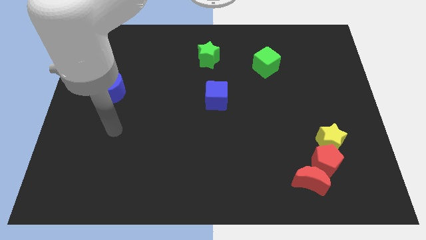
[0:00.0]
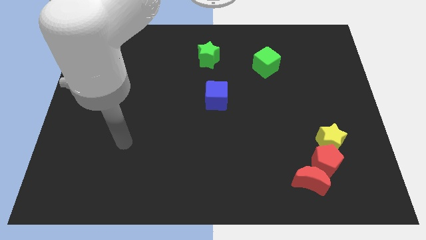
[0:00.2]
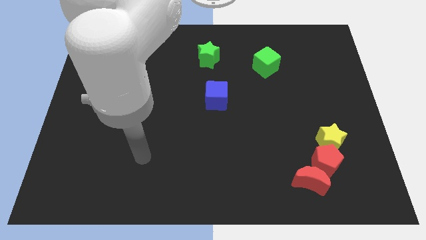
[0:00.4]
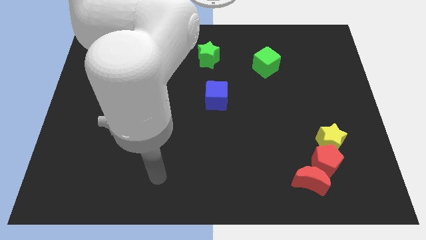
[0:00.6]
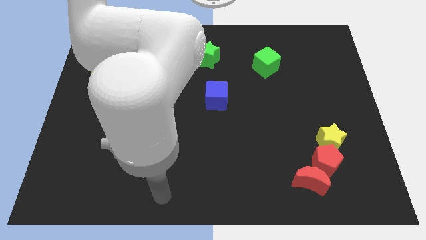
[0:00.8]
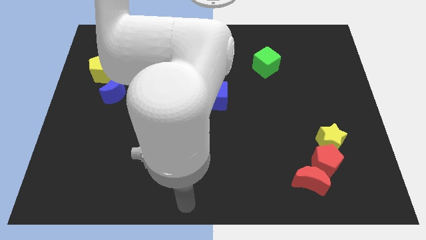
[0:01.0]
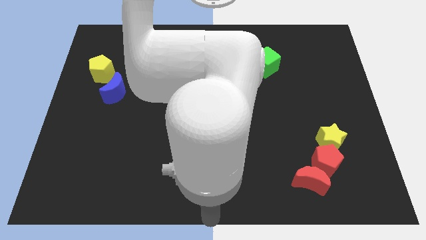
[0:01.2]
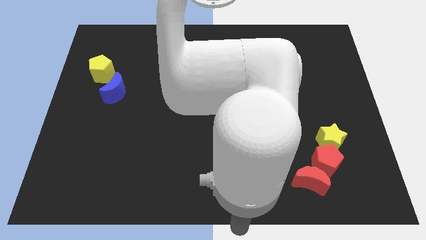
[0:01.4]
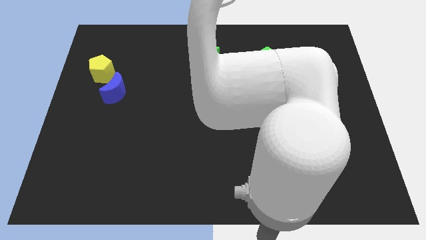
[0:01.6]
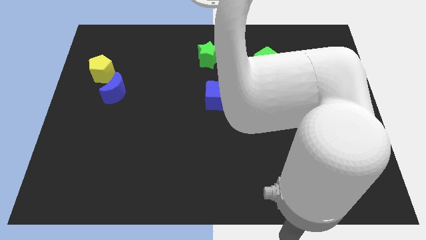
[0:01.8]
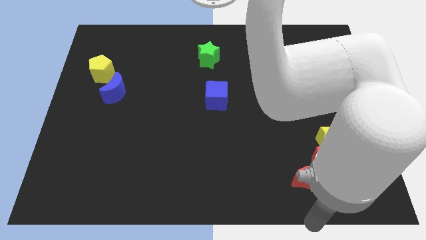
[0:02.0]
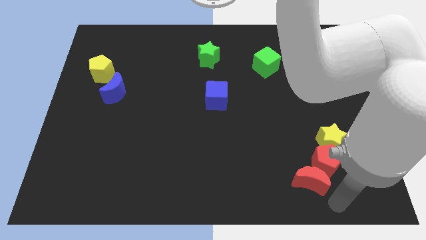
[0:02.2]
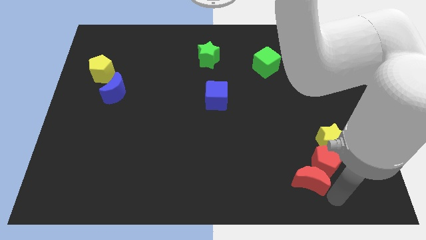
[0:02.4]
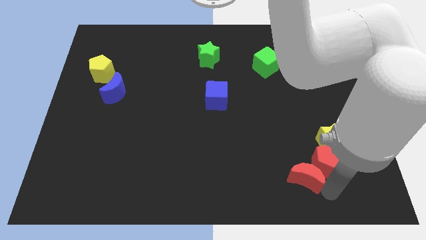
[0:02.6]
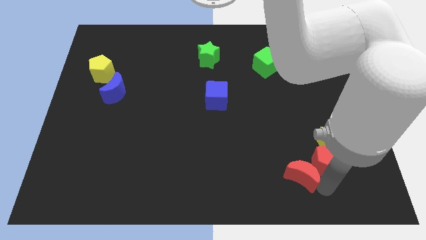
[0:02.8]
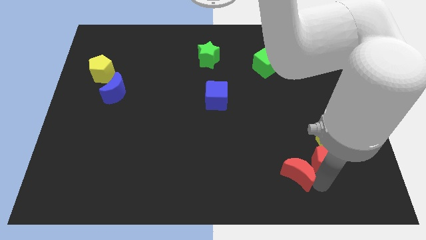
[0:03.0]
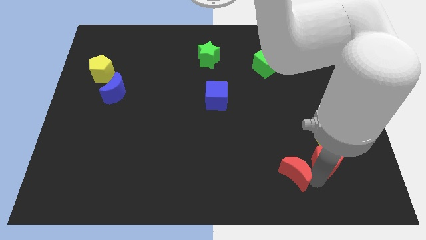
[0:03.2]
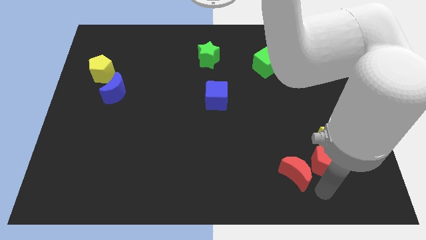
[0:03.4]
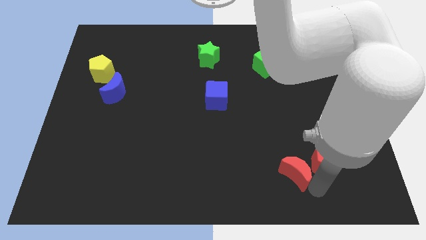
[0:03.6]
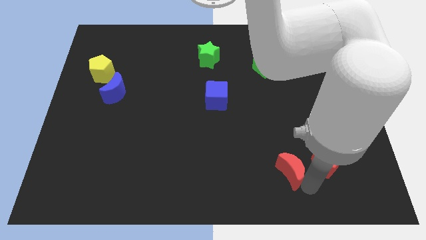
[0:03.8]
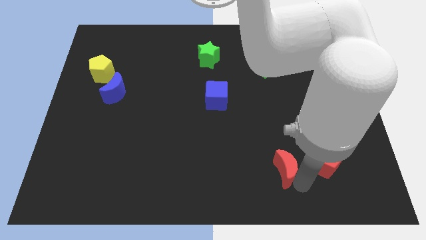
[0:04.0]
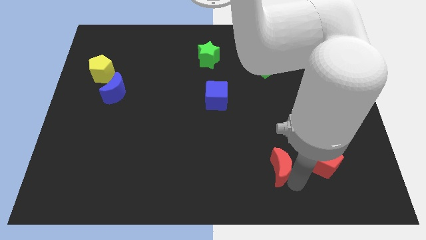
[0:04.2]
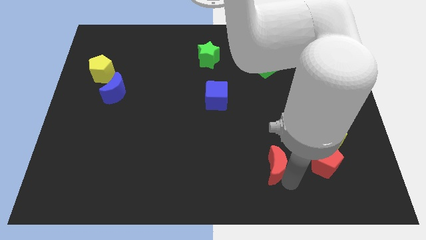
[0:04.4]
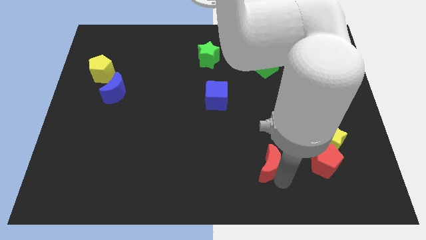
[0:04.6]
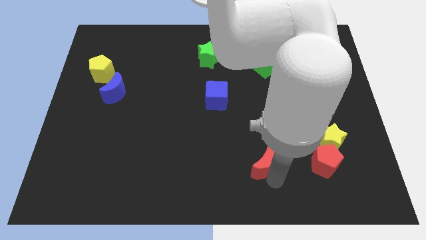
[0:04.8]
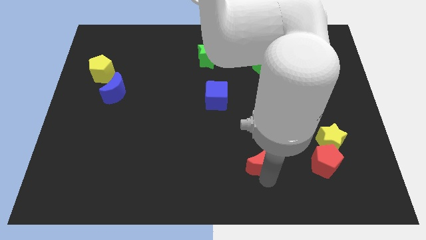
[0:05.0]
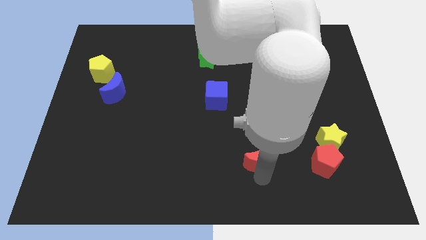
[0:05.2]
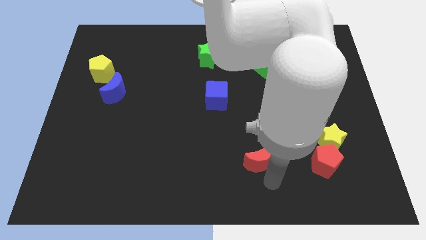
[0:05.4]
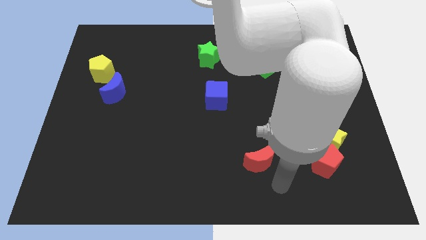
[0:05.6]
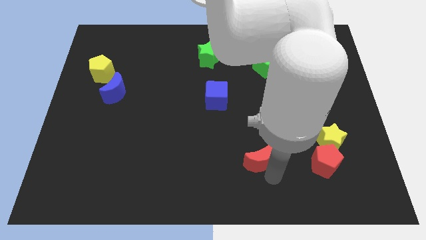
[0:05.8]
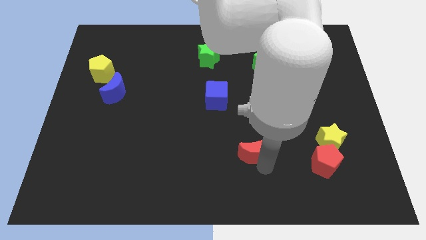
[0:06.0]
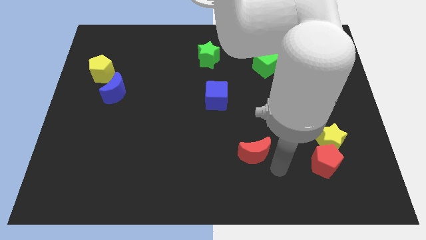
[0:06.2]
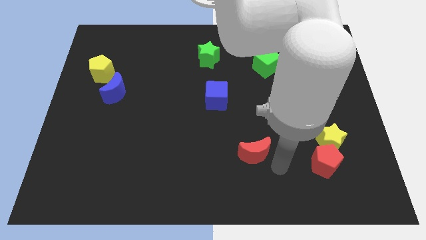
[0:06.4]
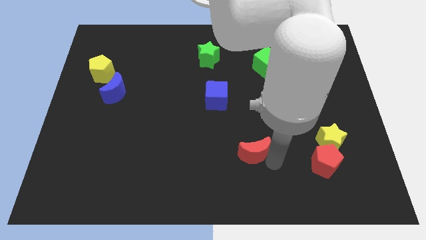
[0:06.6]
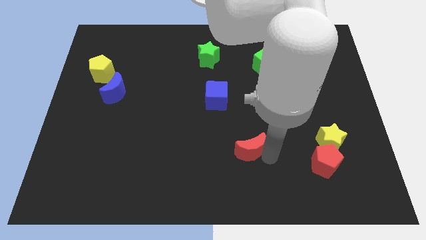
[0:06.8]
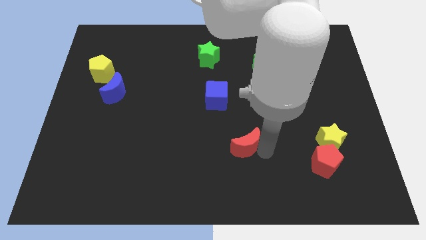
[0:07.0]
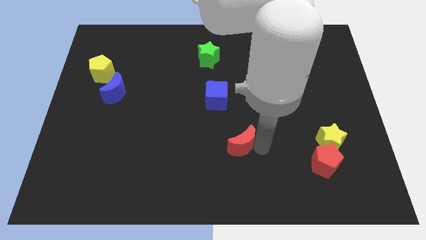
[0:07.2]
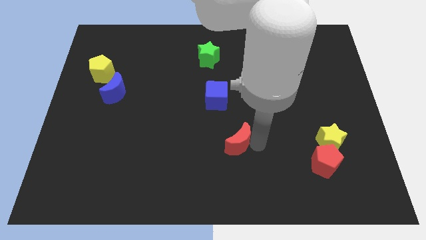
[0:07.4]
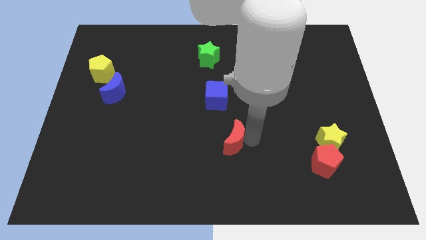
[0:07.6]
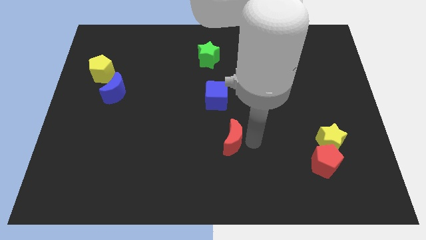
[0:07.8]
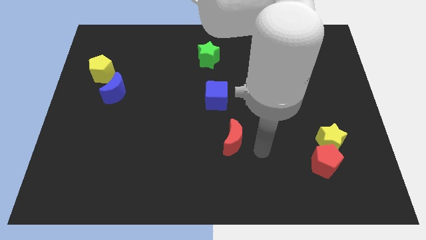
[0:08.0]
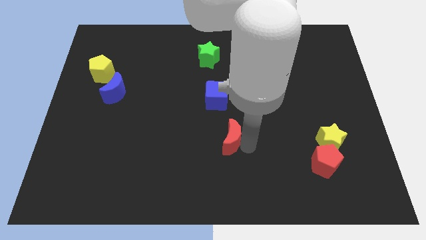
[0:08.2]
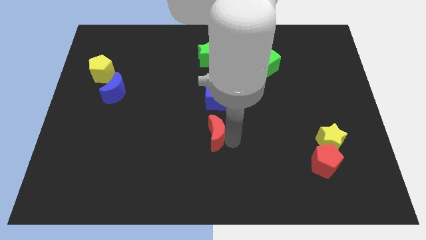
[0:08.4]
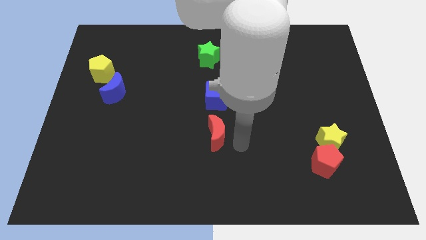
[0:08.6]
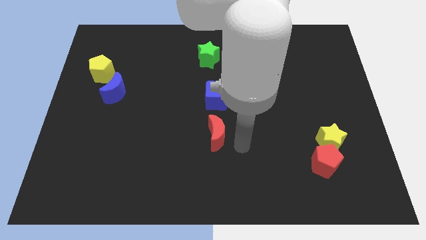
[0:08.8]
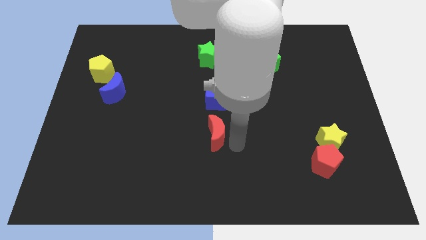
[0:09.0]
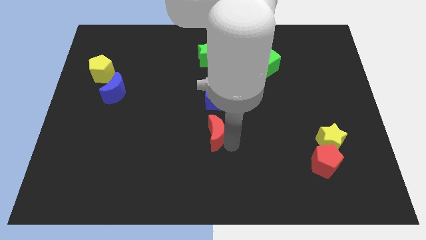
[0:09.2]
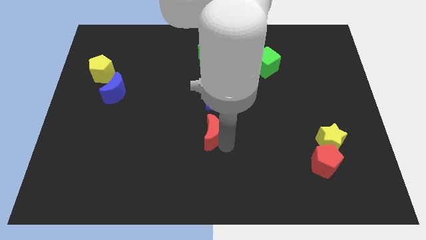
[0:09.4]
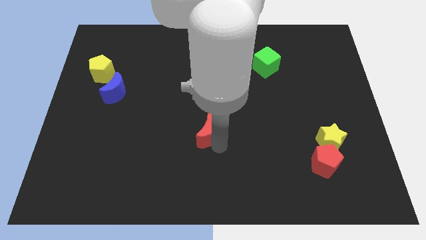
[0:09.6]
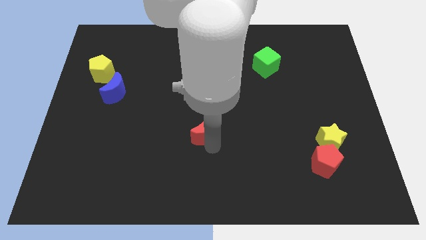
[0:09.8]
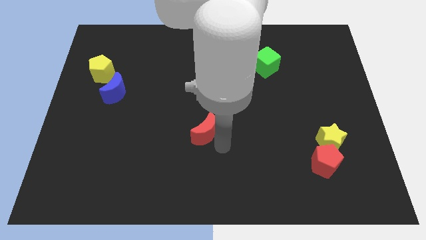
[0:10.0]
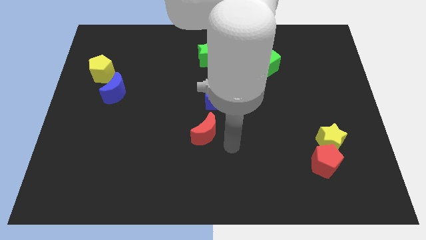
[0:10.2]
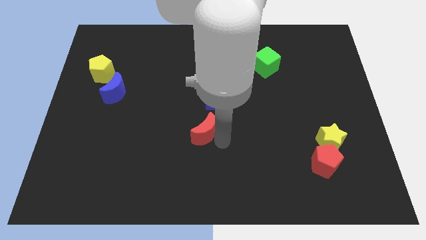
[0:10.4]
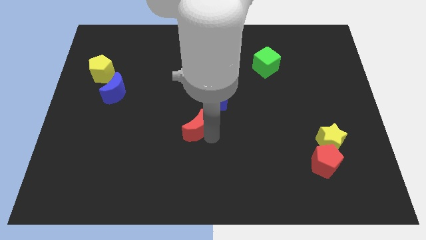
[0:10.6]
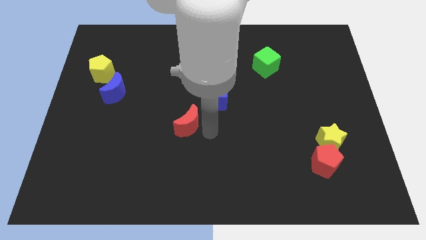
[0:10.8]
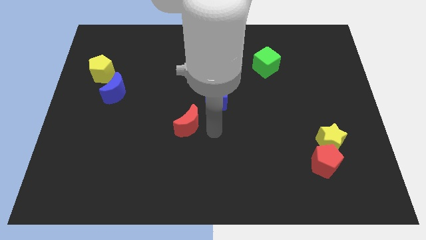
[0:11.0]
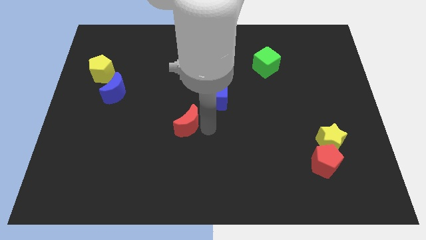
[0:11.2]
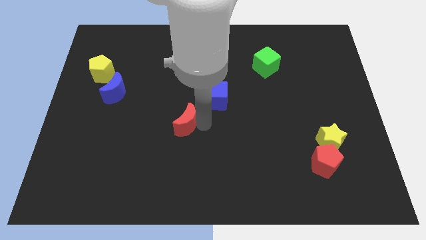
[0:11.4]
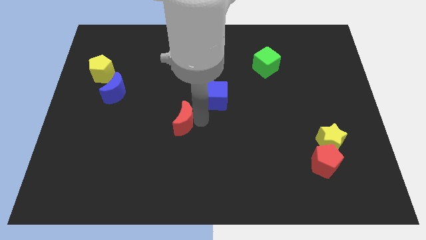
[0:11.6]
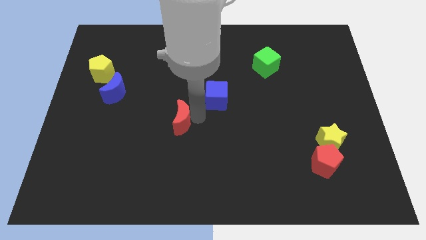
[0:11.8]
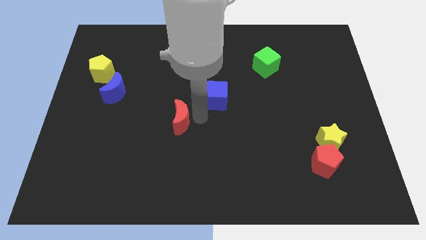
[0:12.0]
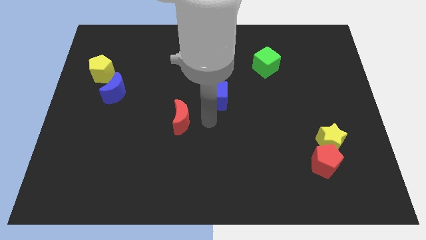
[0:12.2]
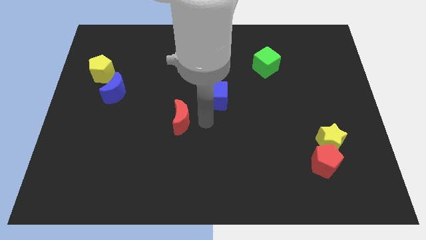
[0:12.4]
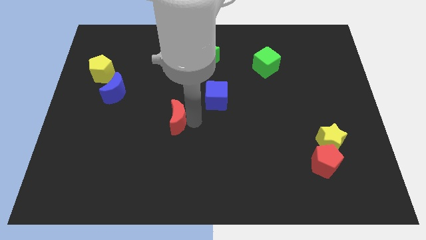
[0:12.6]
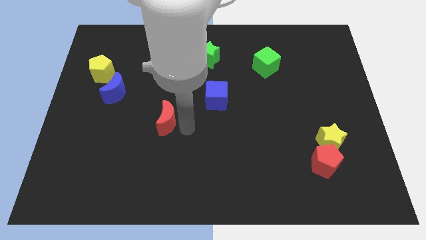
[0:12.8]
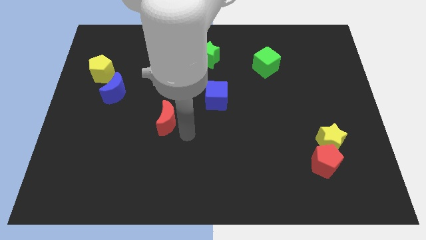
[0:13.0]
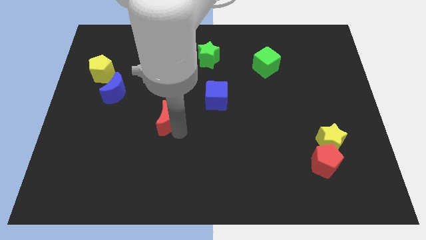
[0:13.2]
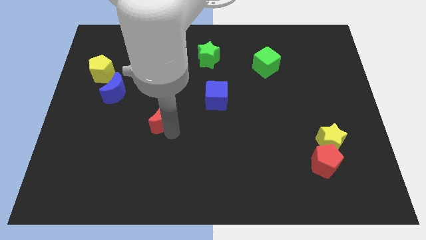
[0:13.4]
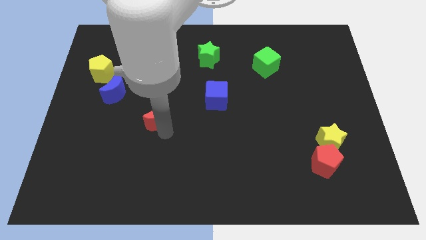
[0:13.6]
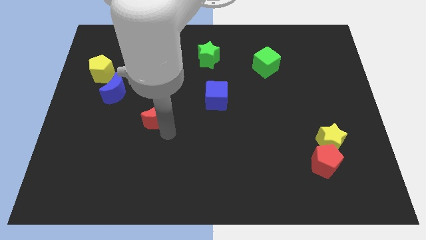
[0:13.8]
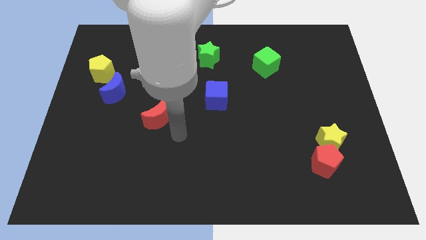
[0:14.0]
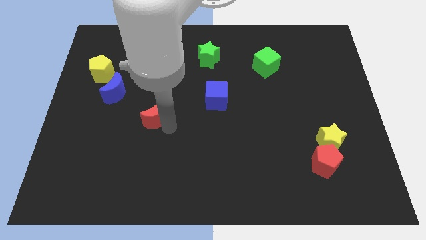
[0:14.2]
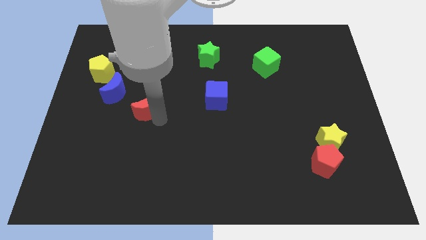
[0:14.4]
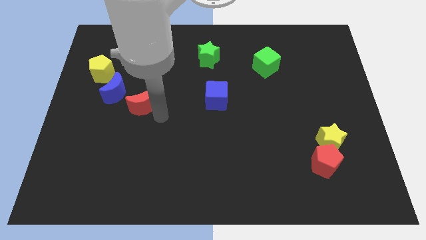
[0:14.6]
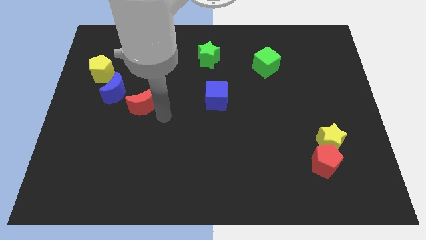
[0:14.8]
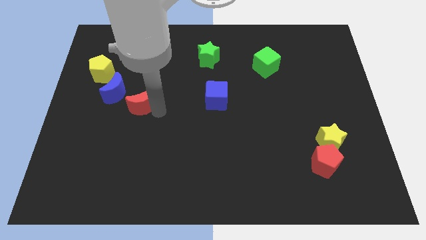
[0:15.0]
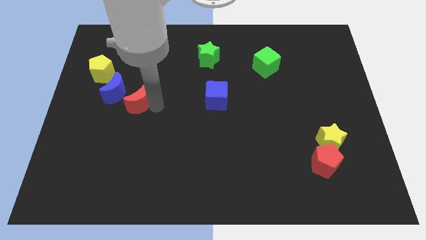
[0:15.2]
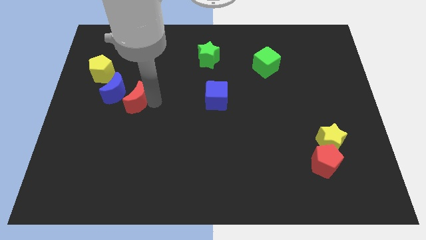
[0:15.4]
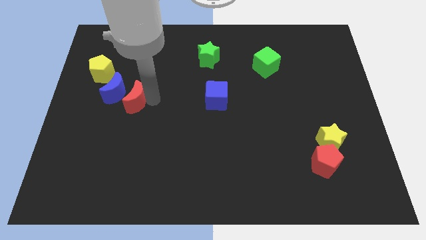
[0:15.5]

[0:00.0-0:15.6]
put the red moon towards the blue moon
